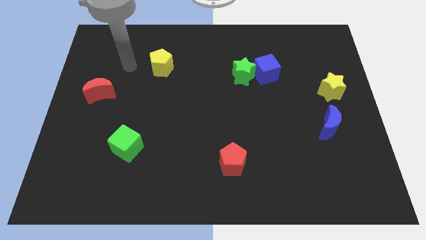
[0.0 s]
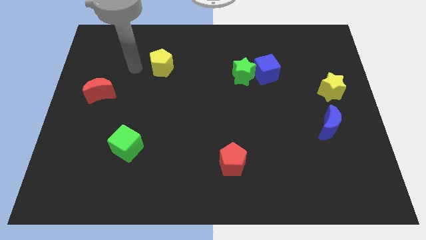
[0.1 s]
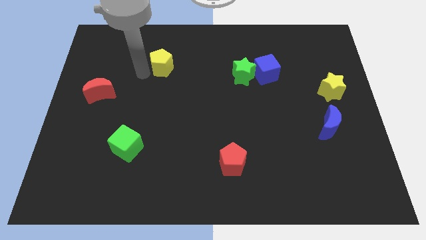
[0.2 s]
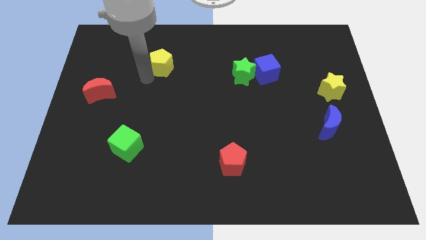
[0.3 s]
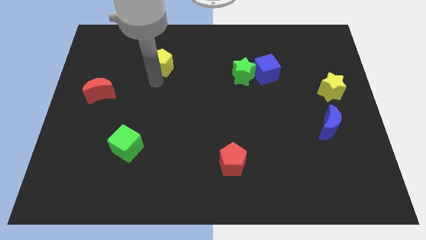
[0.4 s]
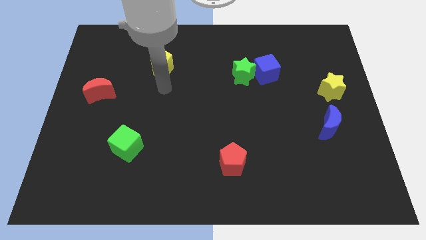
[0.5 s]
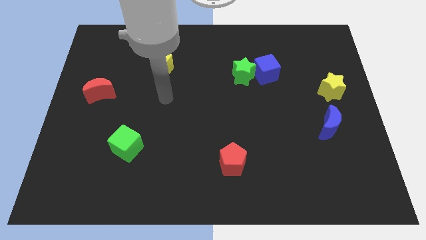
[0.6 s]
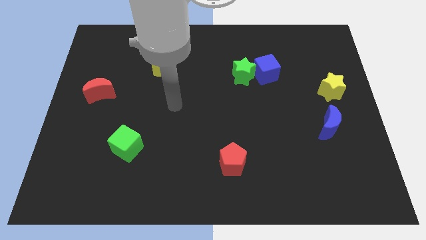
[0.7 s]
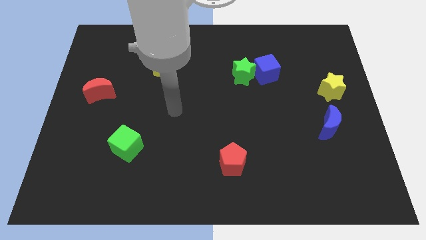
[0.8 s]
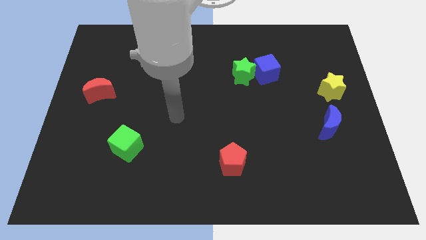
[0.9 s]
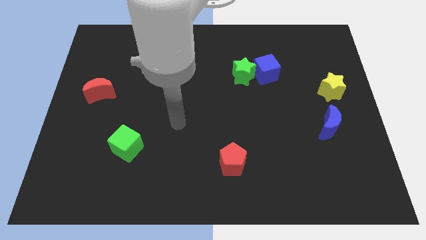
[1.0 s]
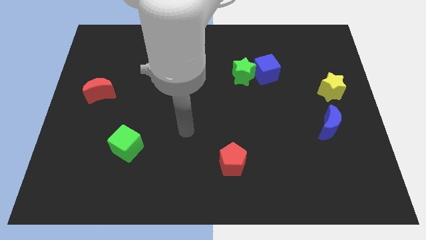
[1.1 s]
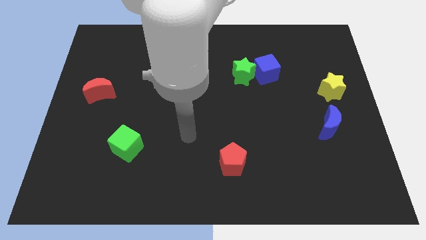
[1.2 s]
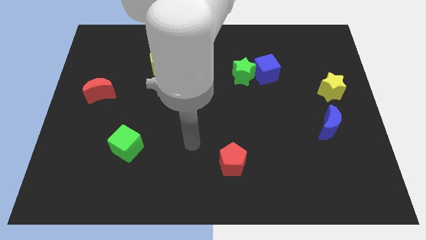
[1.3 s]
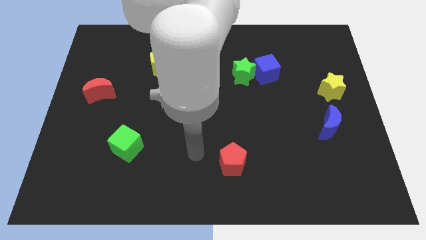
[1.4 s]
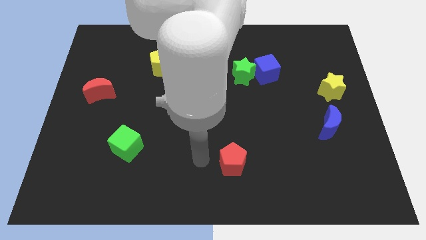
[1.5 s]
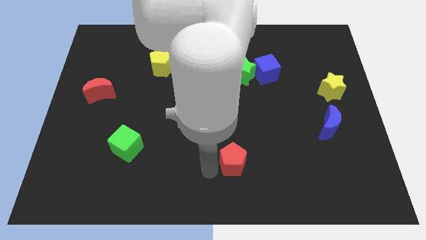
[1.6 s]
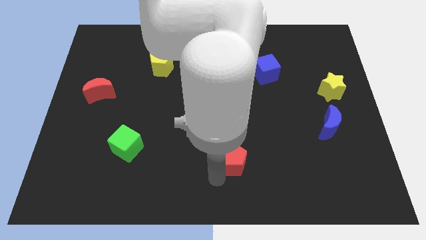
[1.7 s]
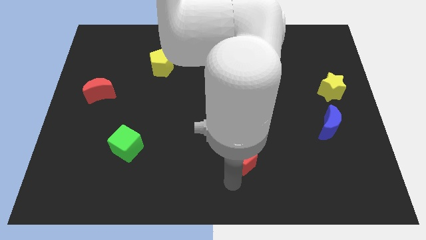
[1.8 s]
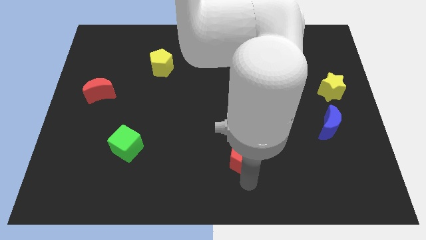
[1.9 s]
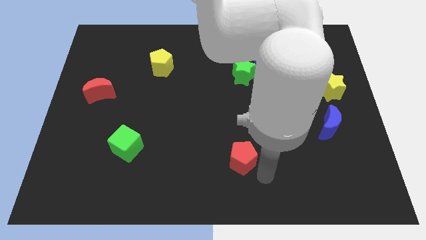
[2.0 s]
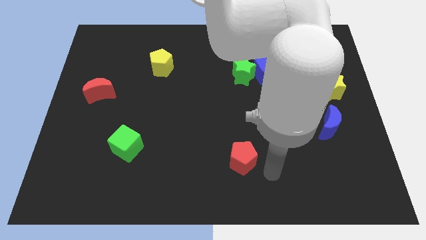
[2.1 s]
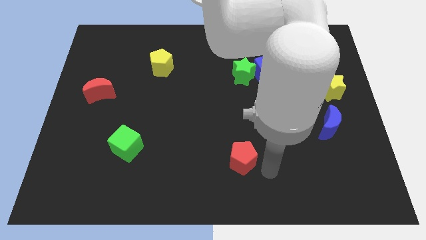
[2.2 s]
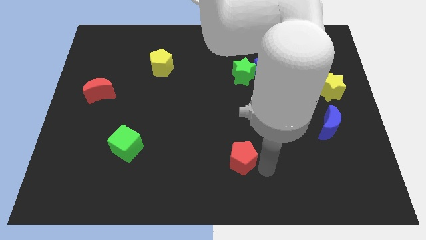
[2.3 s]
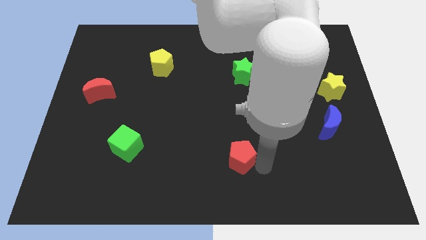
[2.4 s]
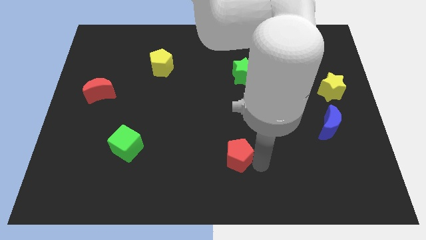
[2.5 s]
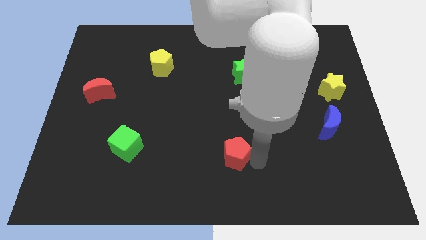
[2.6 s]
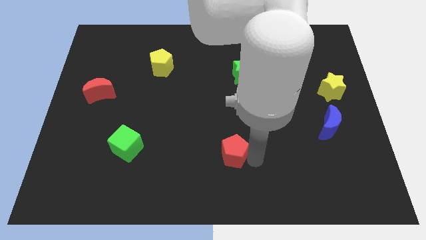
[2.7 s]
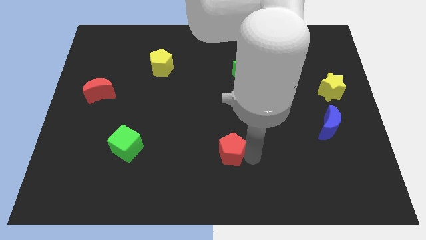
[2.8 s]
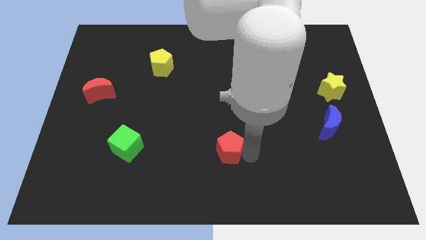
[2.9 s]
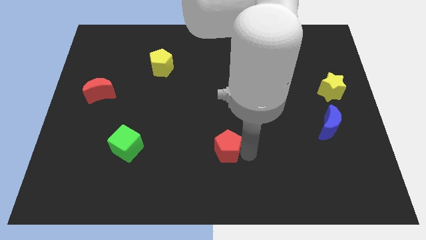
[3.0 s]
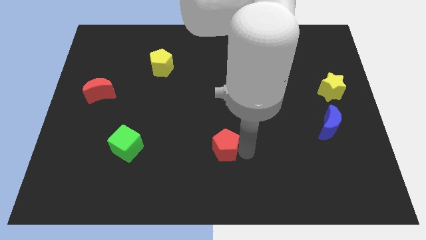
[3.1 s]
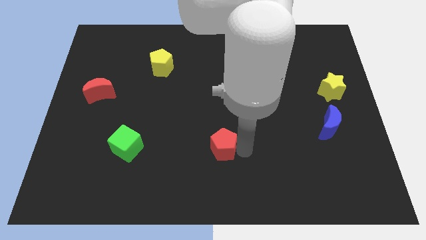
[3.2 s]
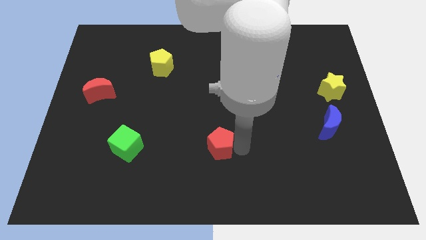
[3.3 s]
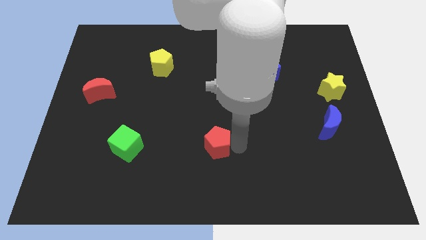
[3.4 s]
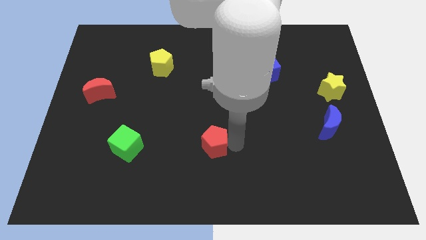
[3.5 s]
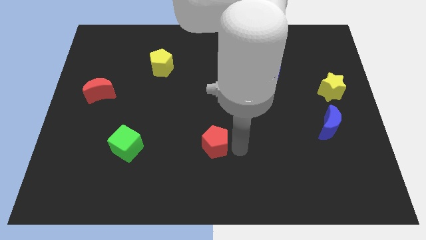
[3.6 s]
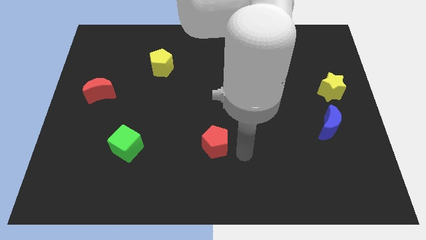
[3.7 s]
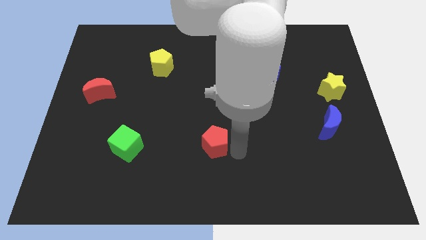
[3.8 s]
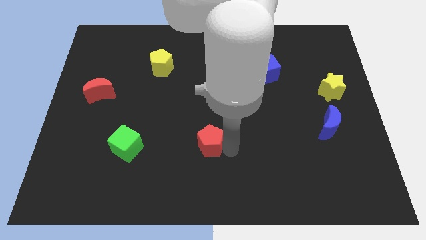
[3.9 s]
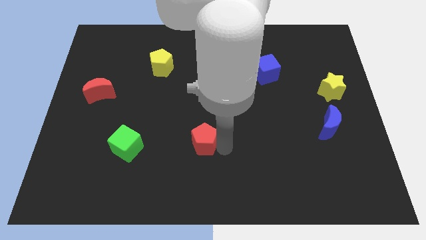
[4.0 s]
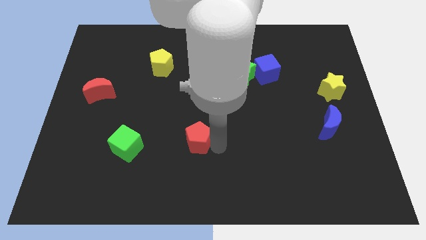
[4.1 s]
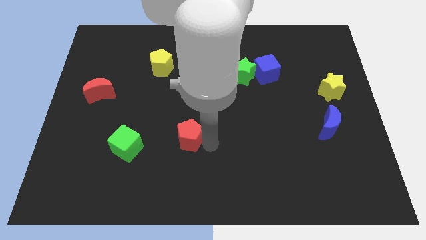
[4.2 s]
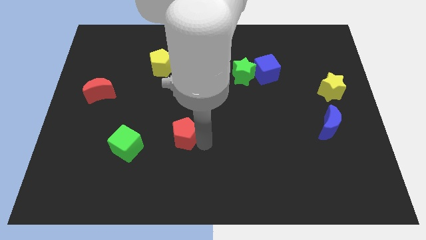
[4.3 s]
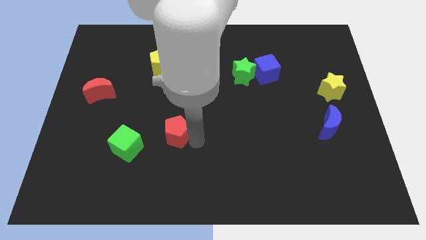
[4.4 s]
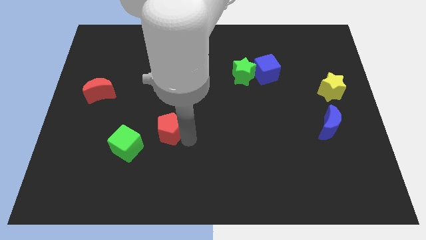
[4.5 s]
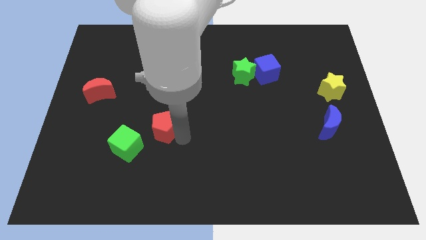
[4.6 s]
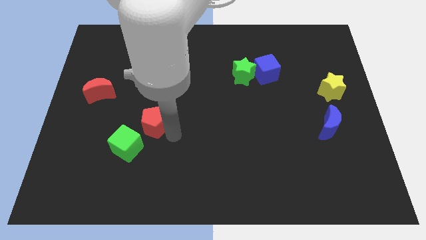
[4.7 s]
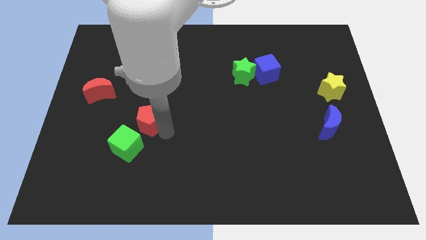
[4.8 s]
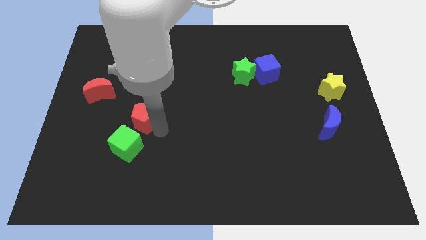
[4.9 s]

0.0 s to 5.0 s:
push the red pentagon upwards and to the left diagonally

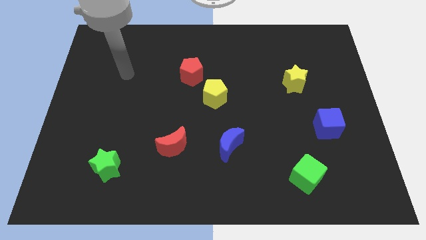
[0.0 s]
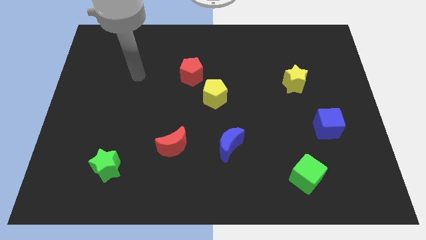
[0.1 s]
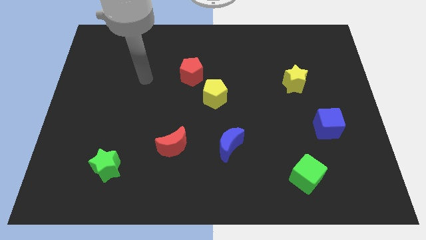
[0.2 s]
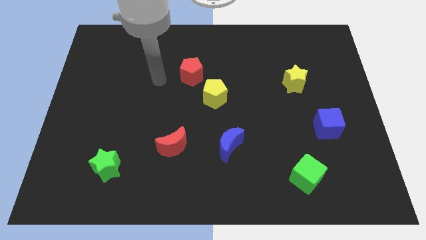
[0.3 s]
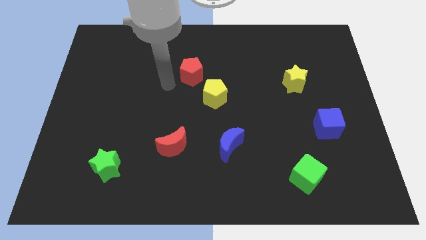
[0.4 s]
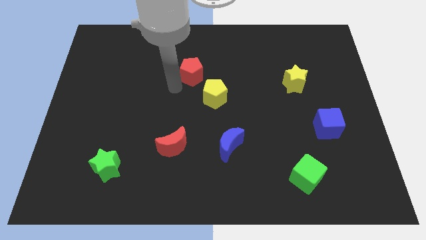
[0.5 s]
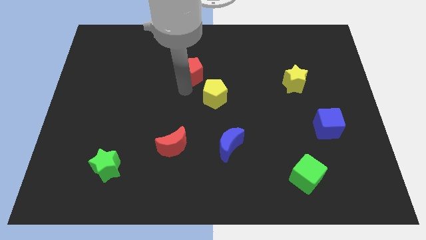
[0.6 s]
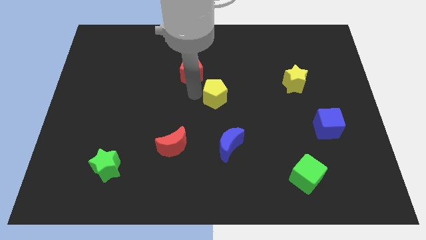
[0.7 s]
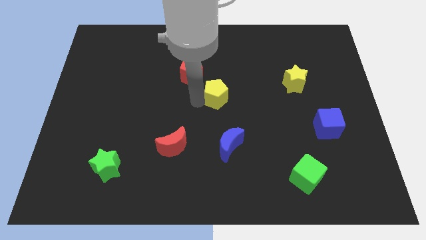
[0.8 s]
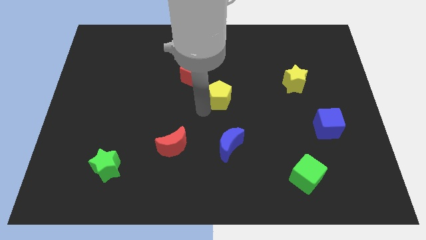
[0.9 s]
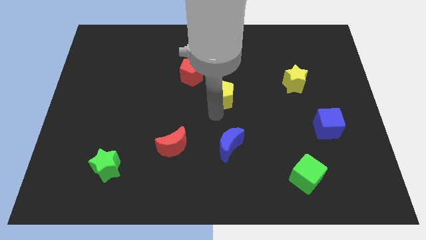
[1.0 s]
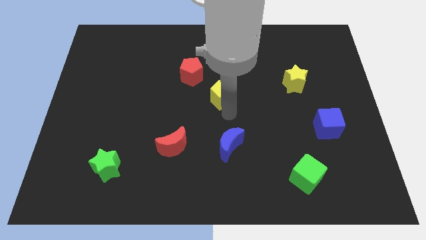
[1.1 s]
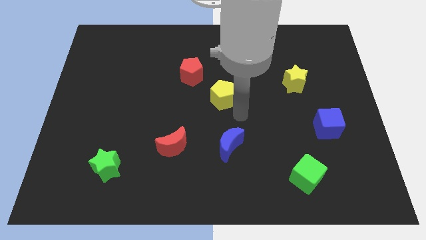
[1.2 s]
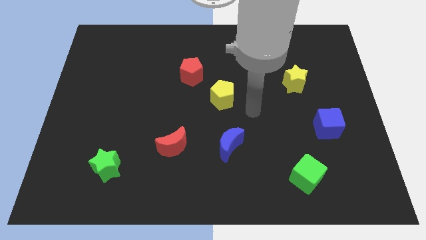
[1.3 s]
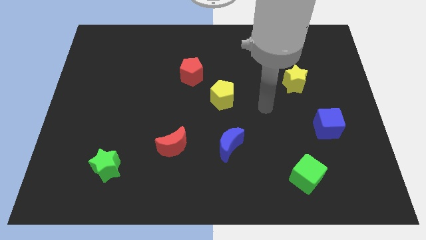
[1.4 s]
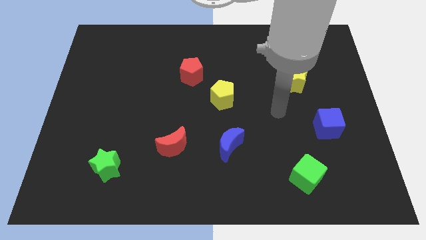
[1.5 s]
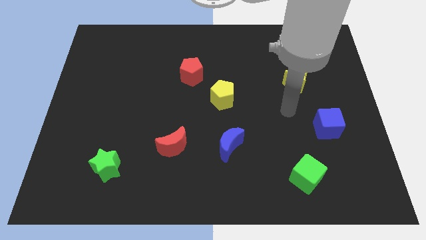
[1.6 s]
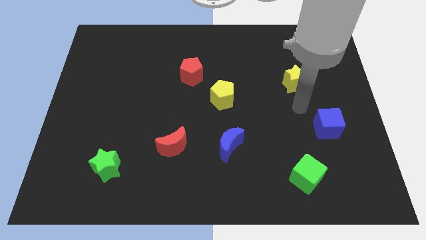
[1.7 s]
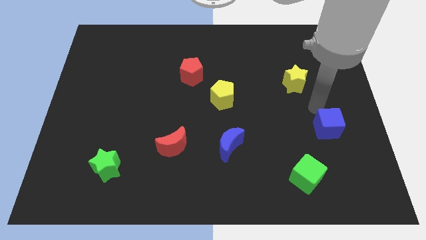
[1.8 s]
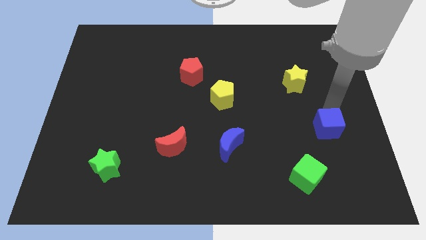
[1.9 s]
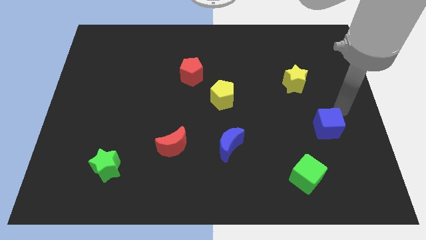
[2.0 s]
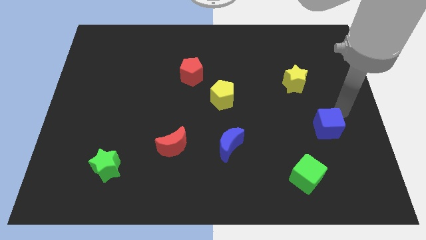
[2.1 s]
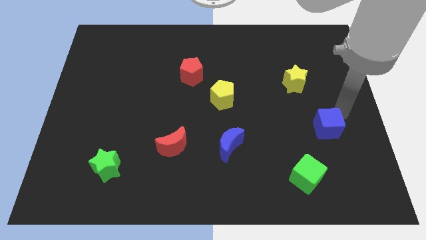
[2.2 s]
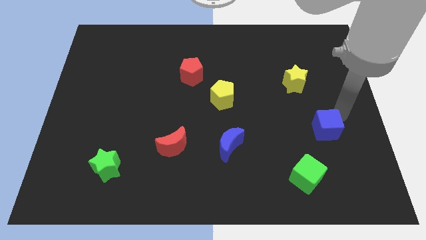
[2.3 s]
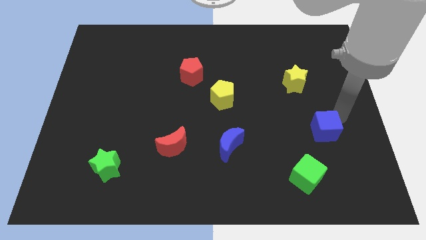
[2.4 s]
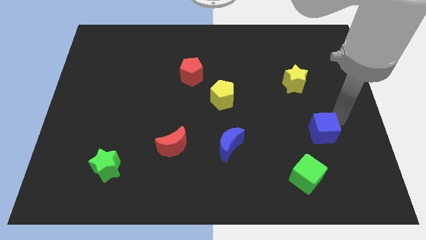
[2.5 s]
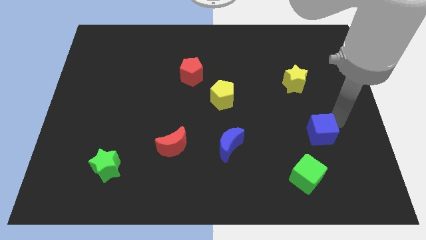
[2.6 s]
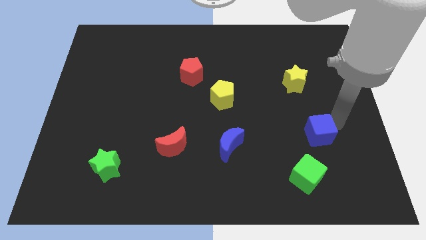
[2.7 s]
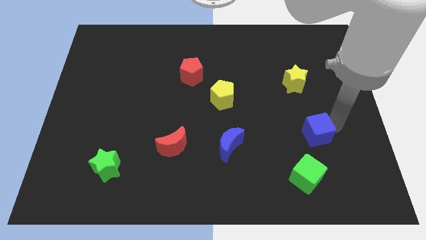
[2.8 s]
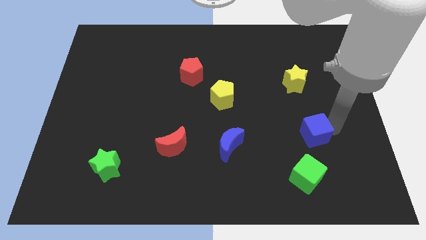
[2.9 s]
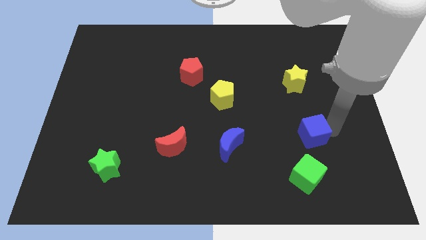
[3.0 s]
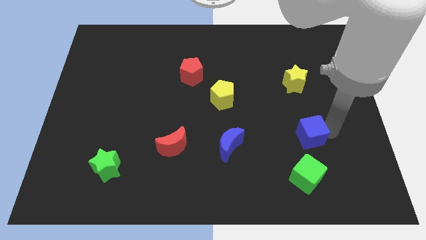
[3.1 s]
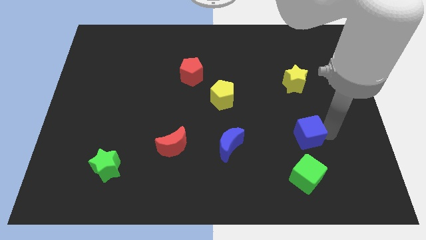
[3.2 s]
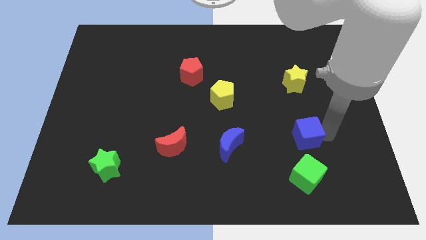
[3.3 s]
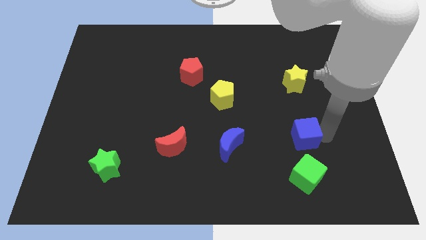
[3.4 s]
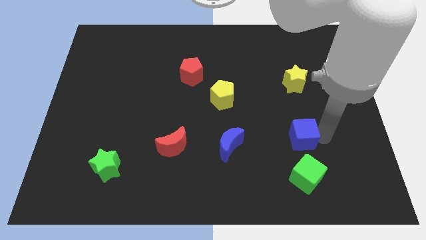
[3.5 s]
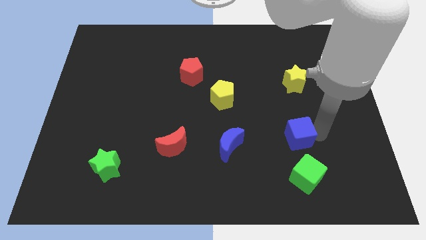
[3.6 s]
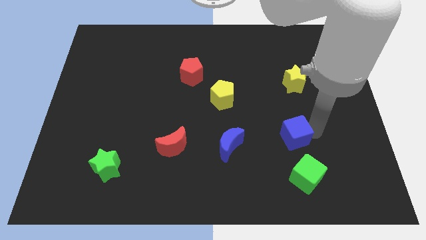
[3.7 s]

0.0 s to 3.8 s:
slightly slide the blue cube down and left diagonally
